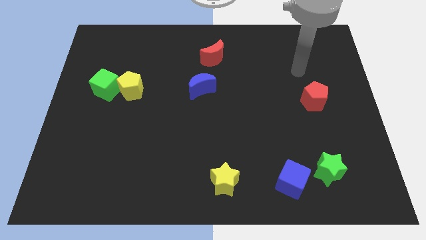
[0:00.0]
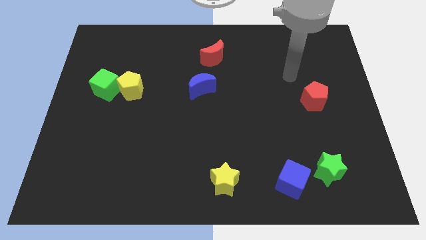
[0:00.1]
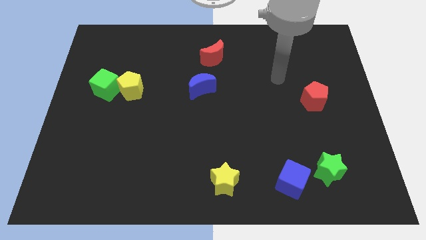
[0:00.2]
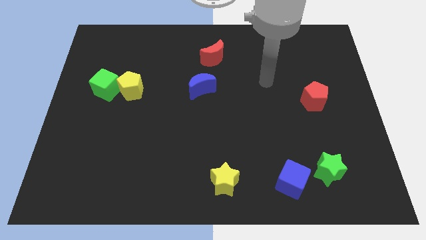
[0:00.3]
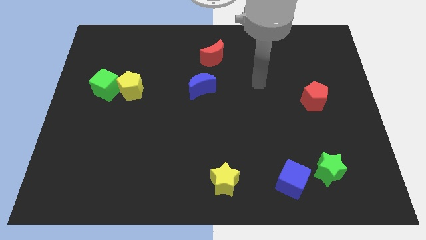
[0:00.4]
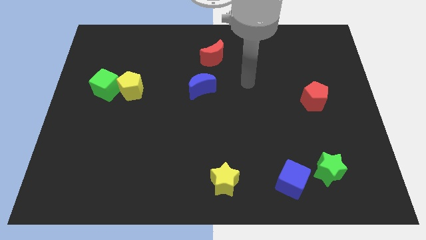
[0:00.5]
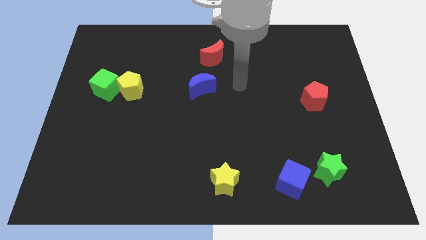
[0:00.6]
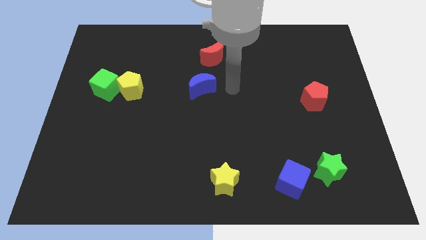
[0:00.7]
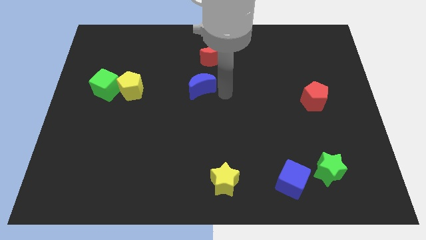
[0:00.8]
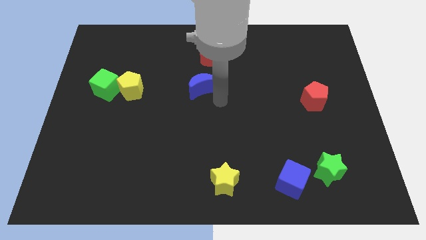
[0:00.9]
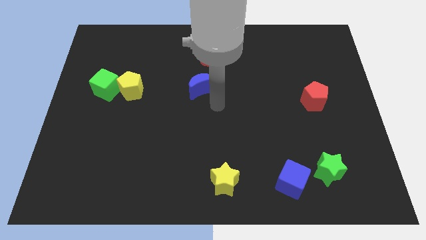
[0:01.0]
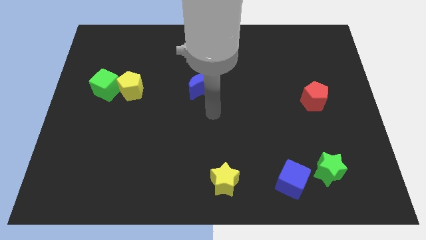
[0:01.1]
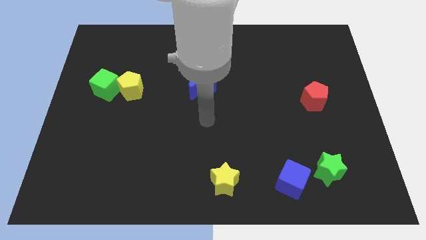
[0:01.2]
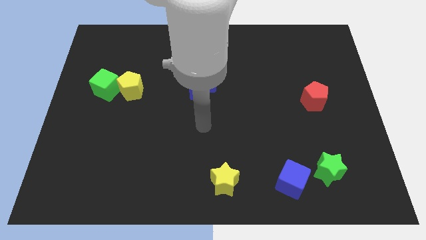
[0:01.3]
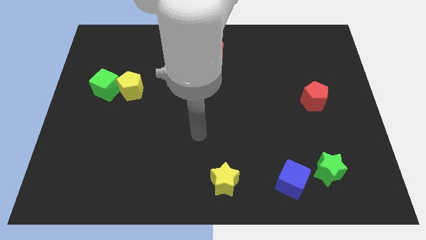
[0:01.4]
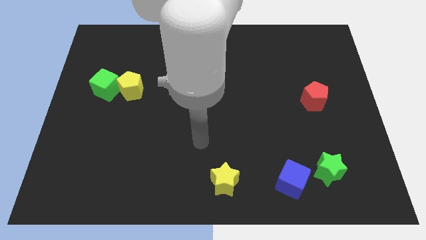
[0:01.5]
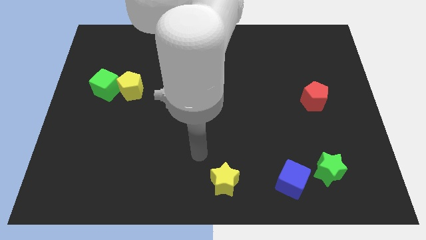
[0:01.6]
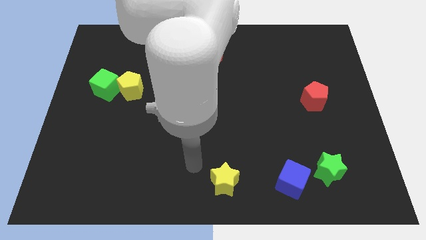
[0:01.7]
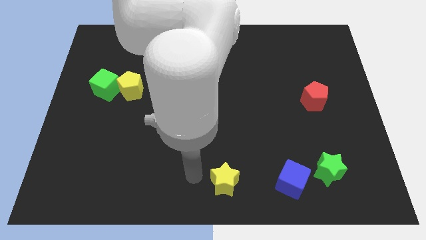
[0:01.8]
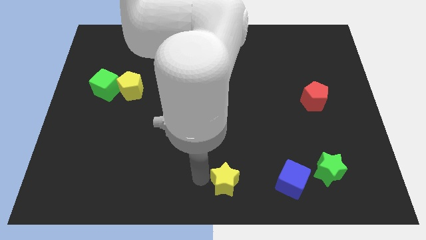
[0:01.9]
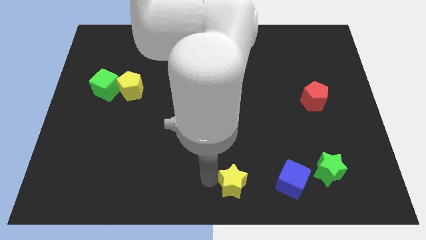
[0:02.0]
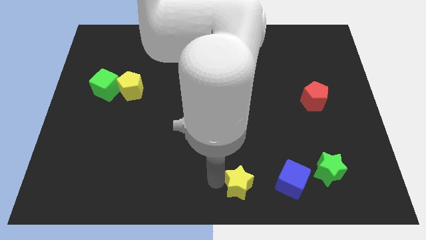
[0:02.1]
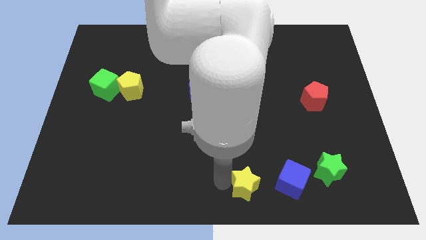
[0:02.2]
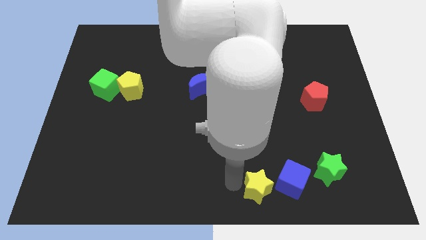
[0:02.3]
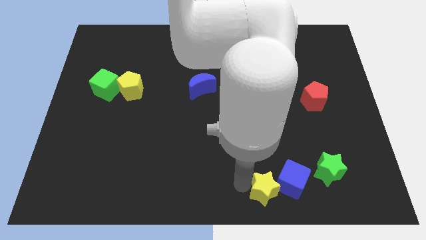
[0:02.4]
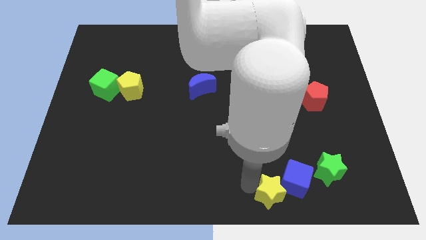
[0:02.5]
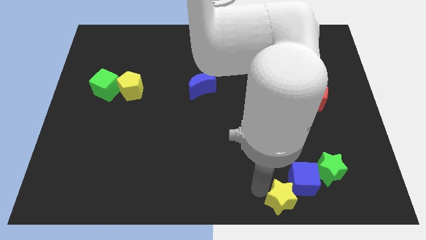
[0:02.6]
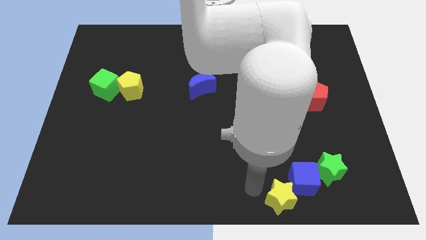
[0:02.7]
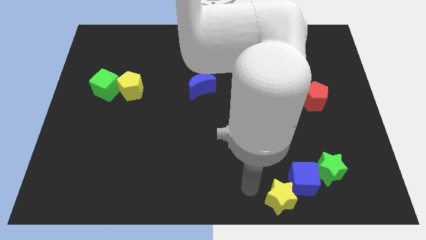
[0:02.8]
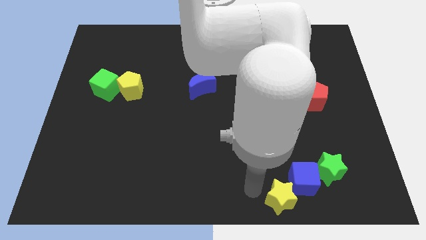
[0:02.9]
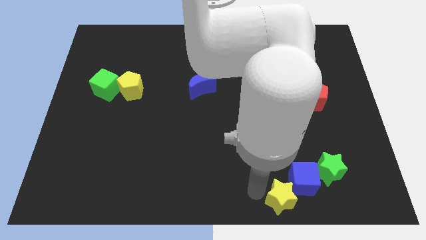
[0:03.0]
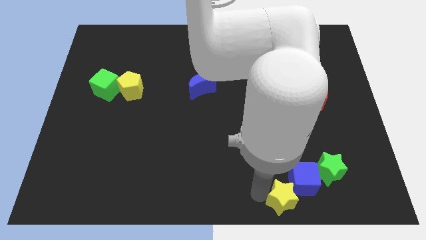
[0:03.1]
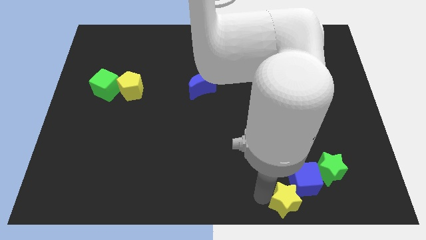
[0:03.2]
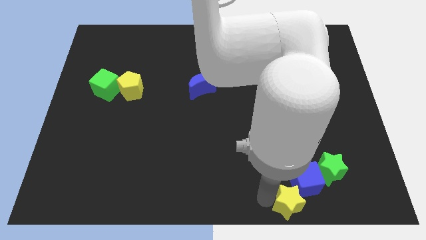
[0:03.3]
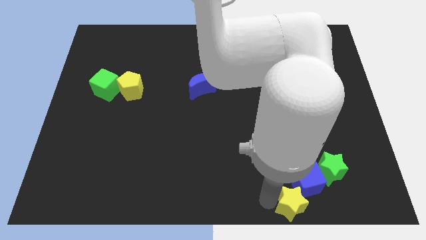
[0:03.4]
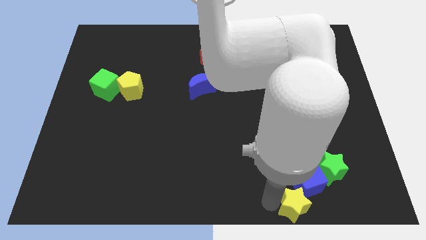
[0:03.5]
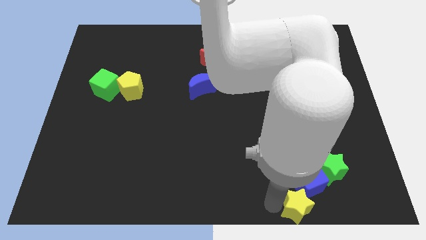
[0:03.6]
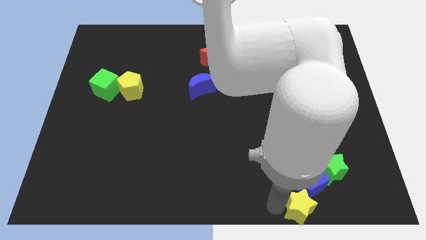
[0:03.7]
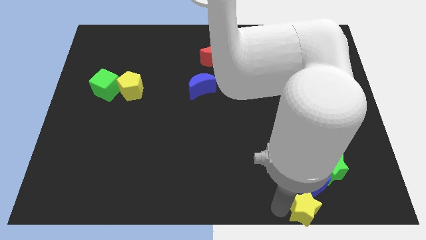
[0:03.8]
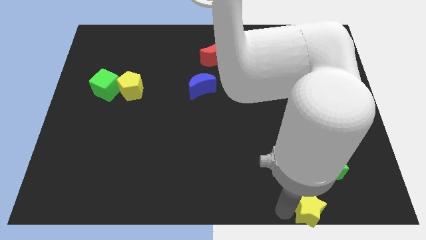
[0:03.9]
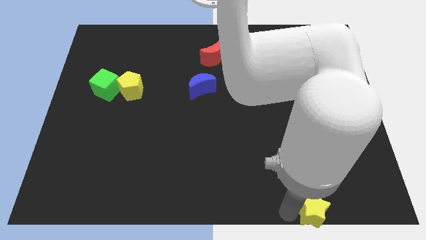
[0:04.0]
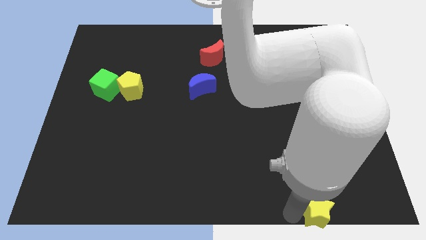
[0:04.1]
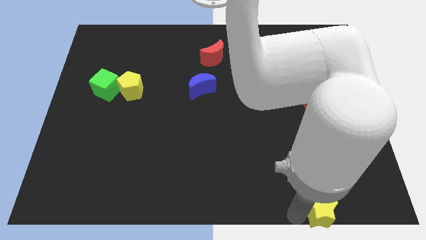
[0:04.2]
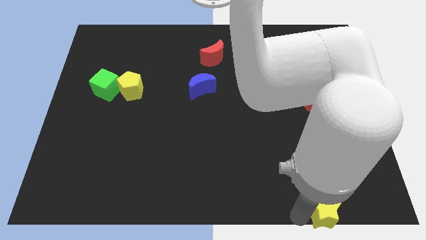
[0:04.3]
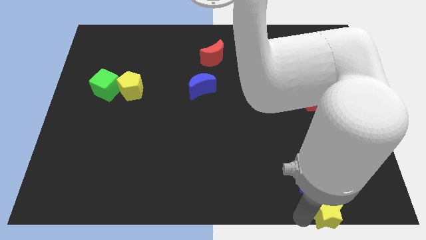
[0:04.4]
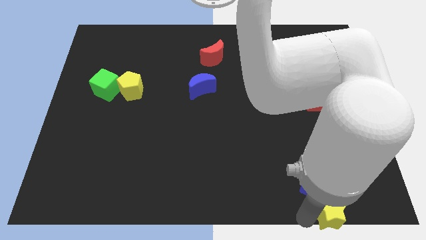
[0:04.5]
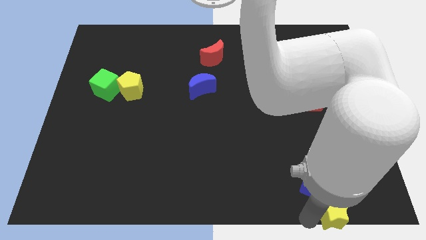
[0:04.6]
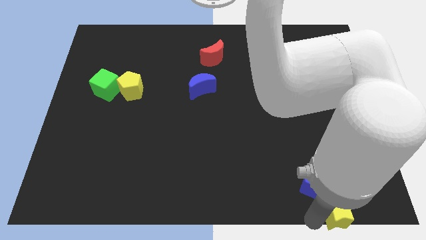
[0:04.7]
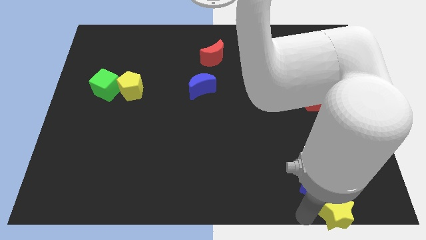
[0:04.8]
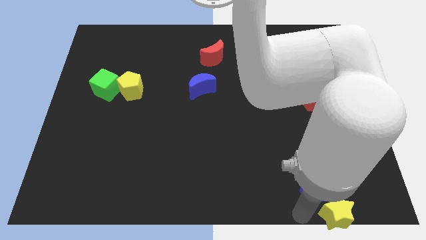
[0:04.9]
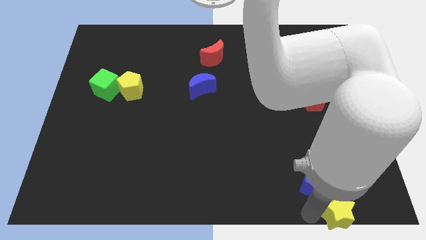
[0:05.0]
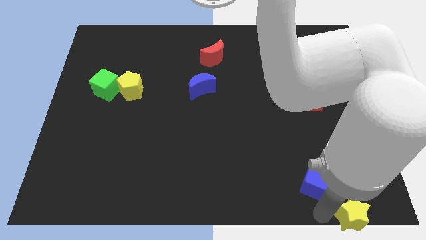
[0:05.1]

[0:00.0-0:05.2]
push the yellow star to the bottom right corner
